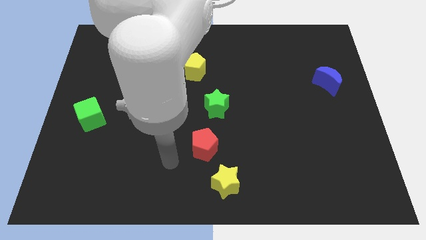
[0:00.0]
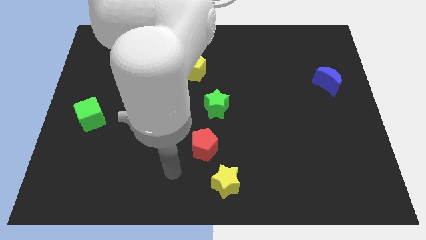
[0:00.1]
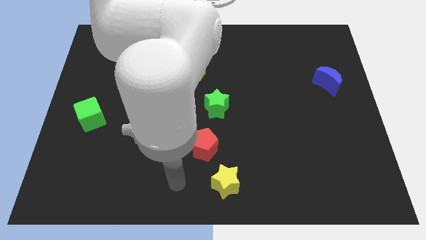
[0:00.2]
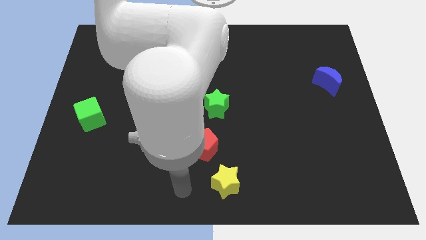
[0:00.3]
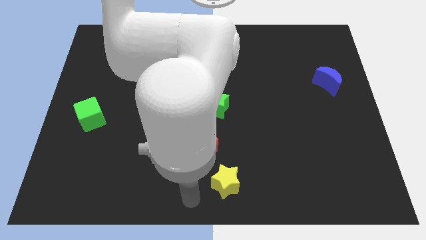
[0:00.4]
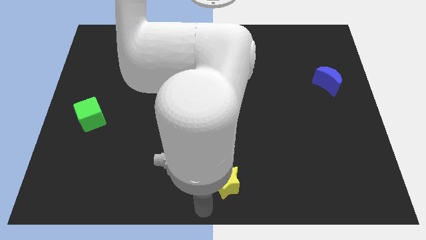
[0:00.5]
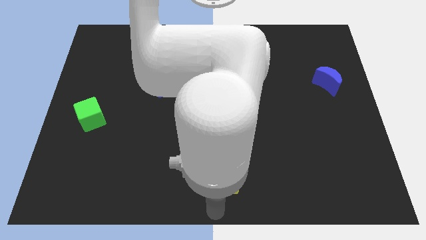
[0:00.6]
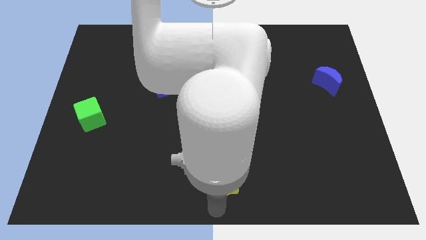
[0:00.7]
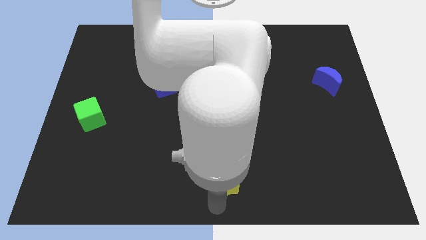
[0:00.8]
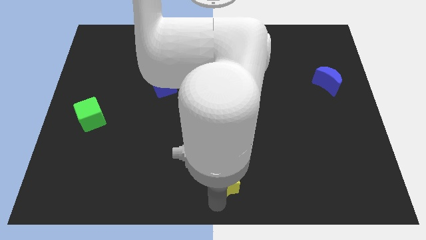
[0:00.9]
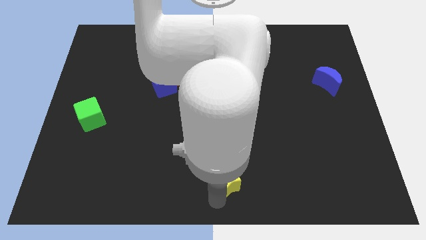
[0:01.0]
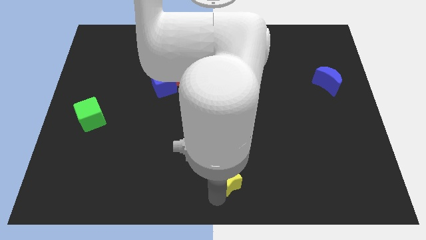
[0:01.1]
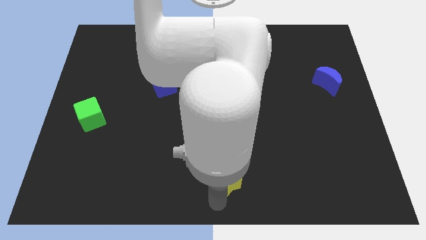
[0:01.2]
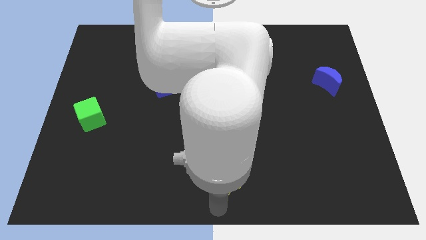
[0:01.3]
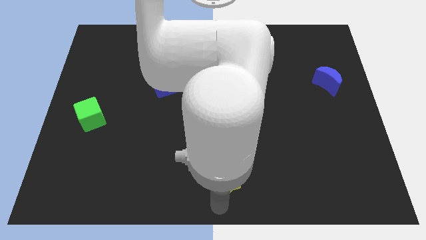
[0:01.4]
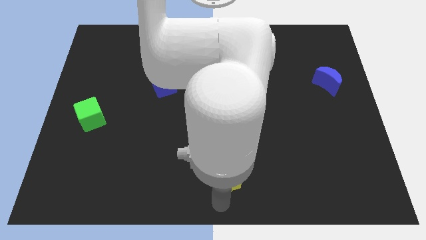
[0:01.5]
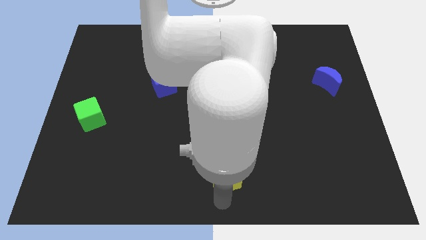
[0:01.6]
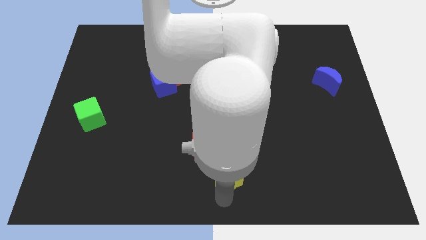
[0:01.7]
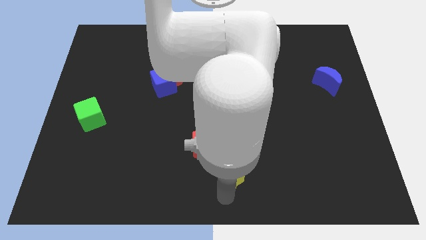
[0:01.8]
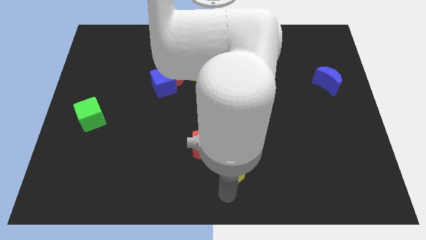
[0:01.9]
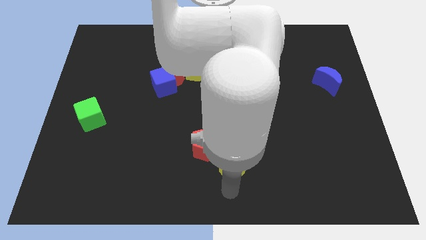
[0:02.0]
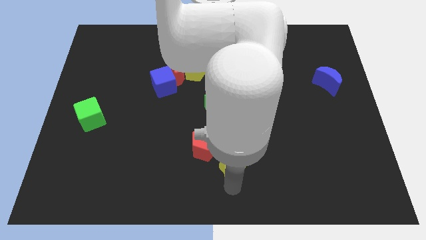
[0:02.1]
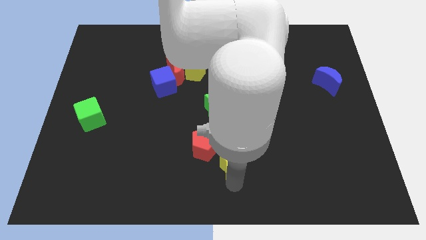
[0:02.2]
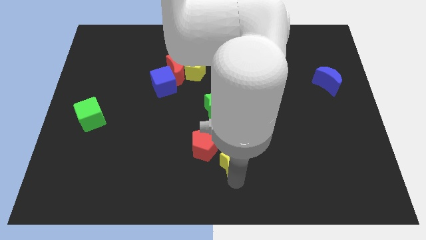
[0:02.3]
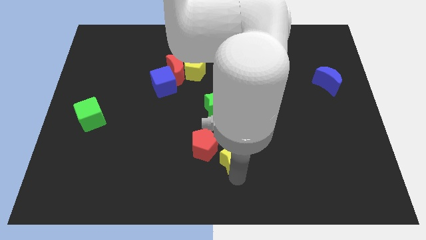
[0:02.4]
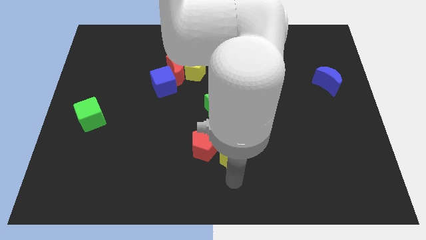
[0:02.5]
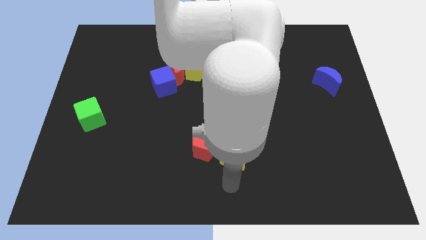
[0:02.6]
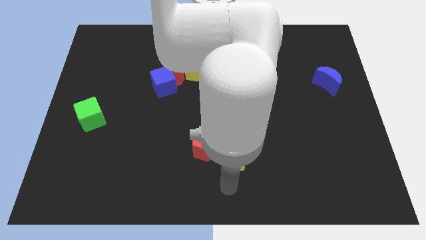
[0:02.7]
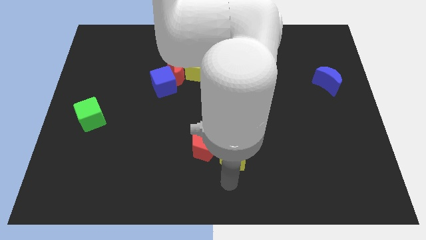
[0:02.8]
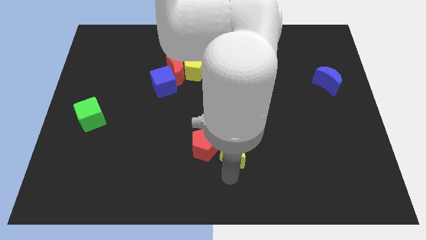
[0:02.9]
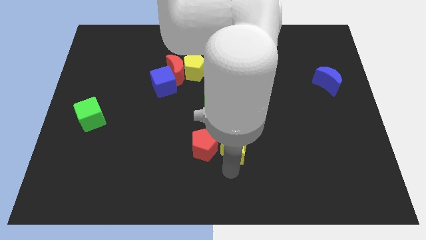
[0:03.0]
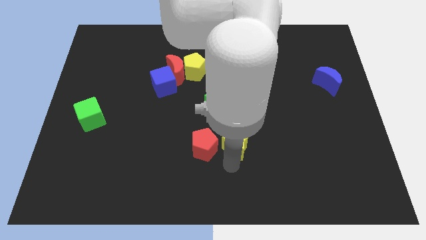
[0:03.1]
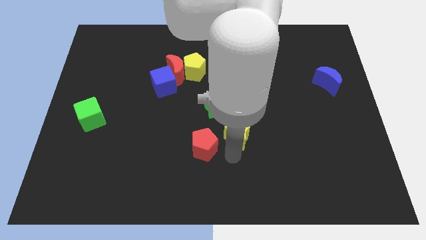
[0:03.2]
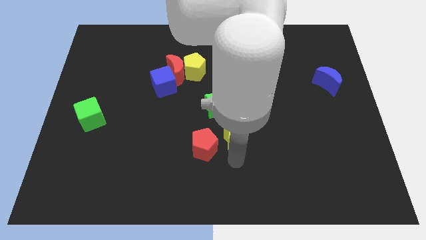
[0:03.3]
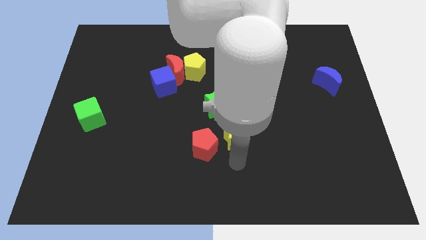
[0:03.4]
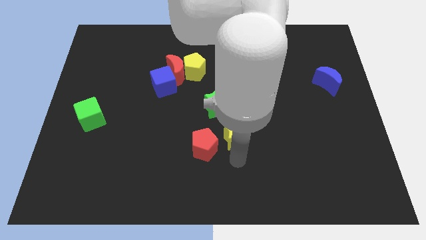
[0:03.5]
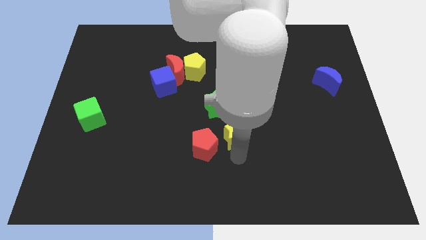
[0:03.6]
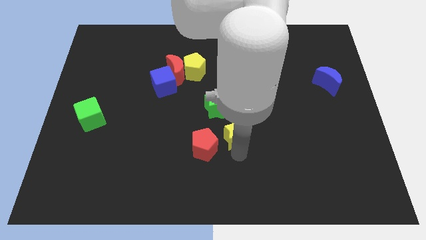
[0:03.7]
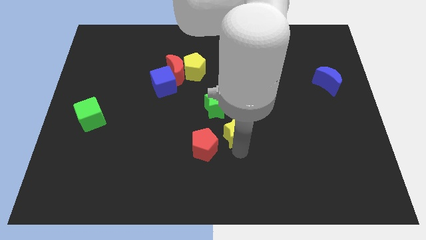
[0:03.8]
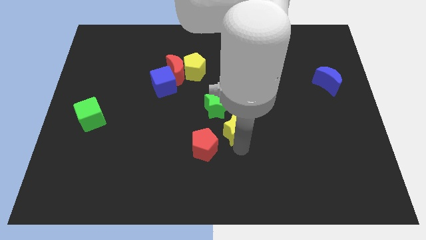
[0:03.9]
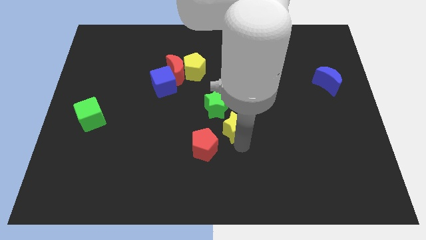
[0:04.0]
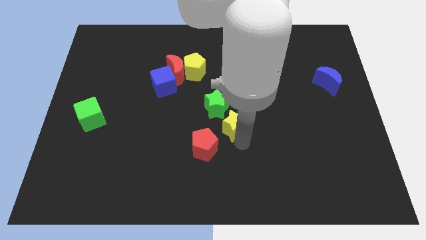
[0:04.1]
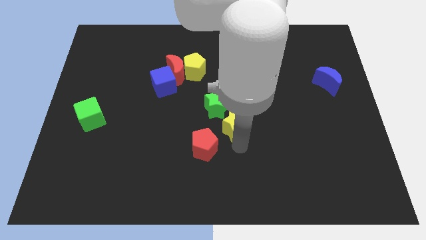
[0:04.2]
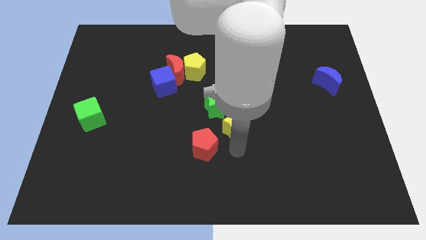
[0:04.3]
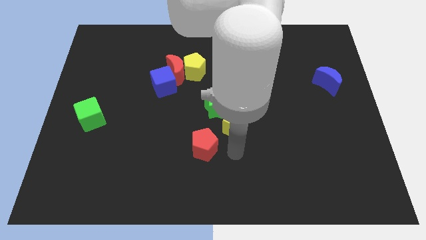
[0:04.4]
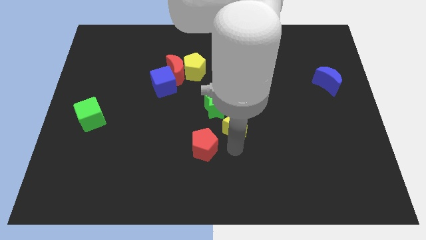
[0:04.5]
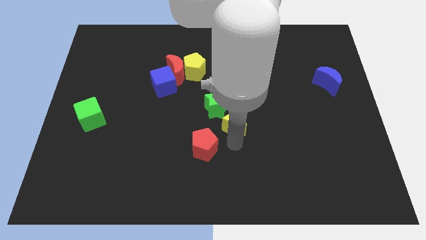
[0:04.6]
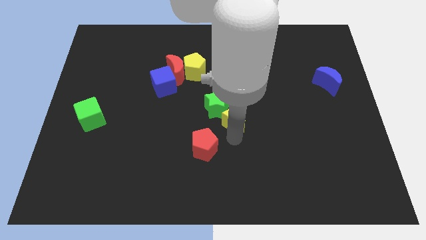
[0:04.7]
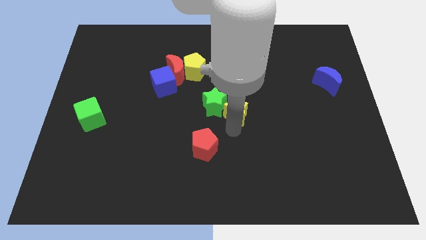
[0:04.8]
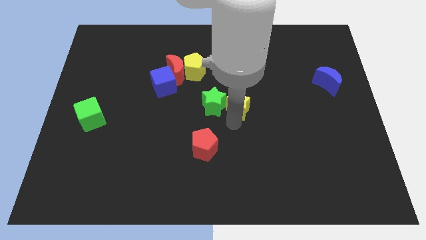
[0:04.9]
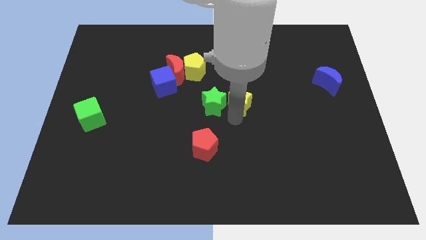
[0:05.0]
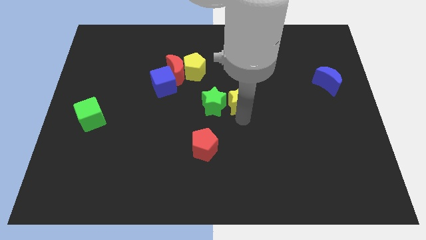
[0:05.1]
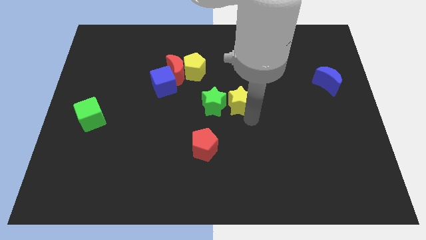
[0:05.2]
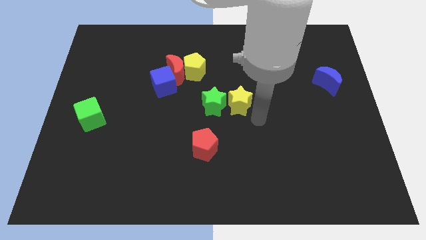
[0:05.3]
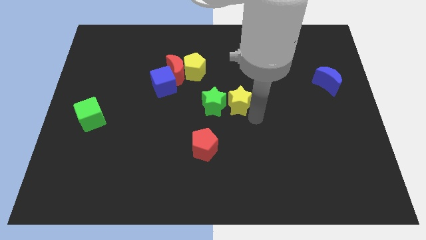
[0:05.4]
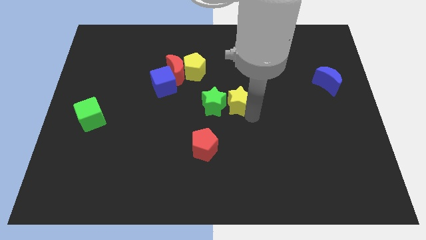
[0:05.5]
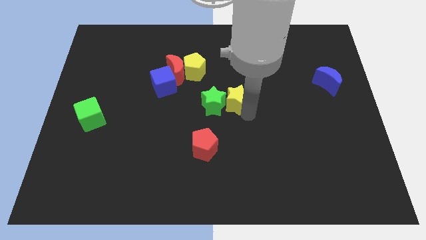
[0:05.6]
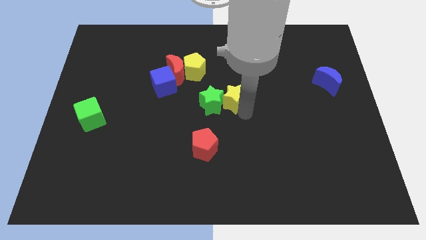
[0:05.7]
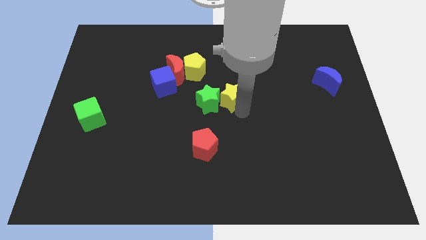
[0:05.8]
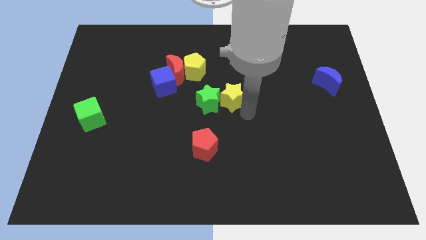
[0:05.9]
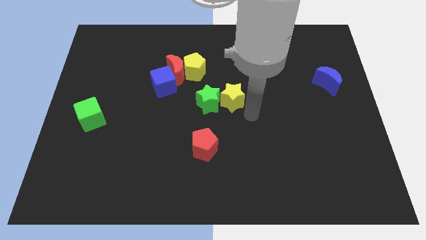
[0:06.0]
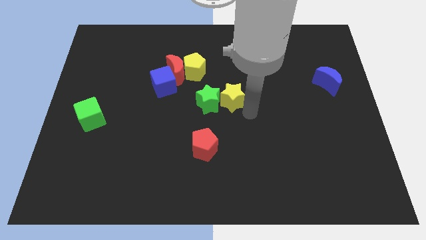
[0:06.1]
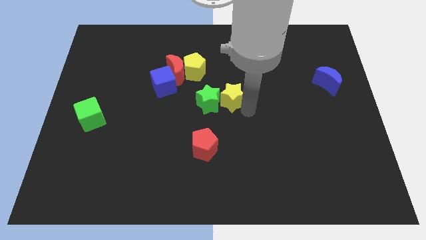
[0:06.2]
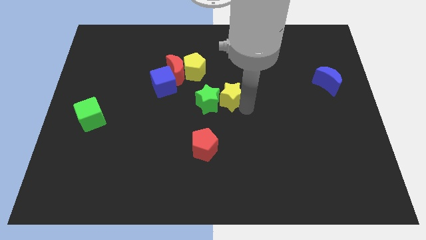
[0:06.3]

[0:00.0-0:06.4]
push the yellow star to the bottom right of the yellow pentagon
